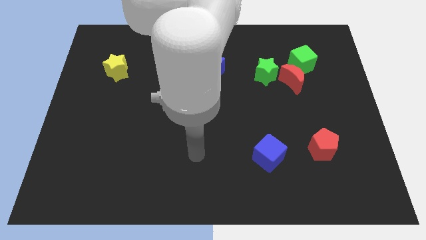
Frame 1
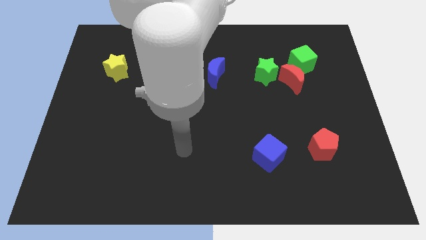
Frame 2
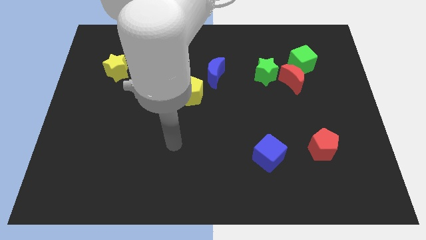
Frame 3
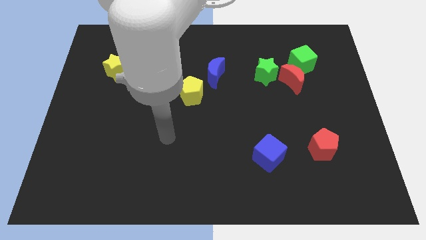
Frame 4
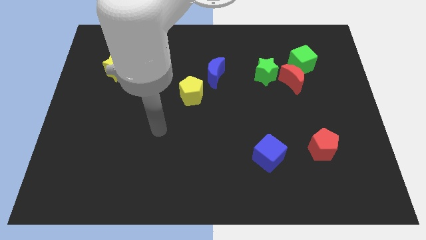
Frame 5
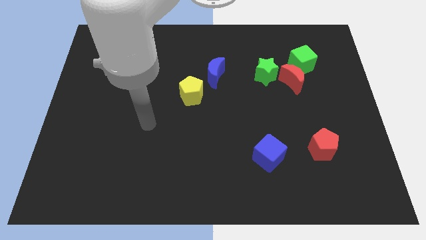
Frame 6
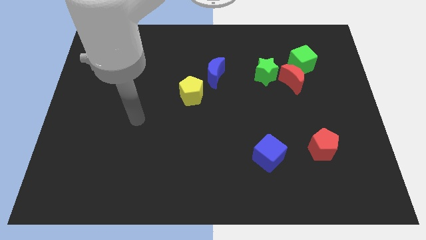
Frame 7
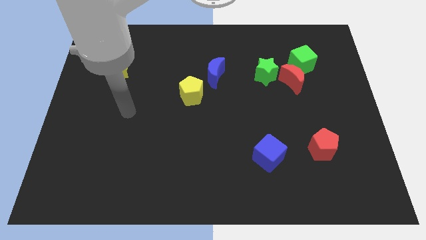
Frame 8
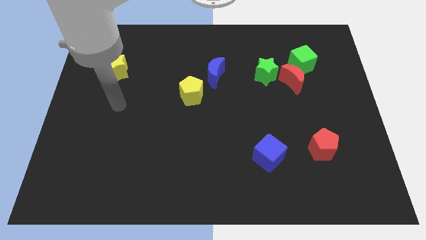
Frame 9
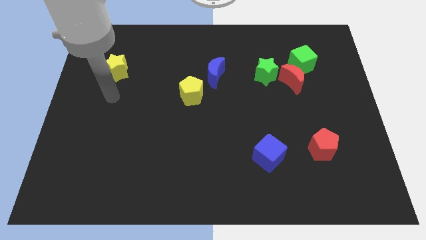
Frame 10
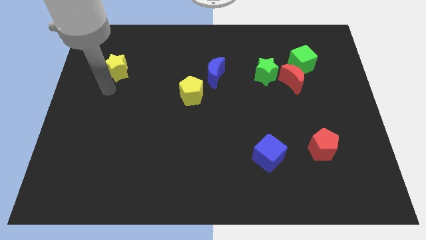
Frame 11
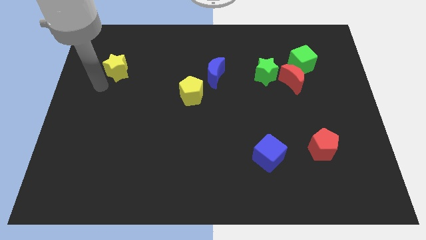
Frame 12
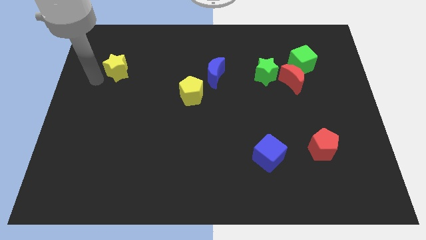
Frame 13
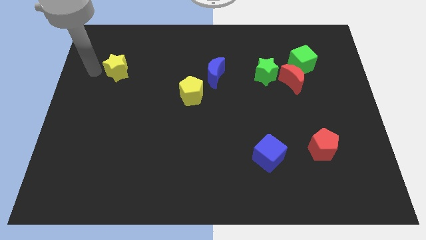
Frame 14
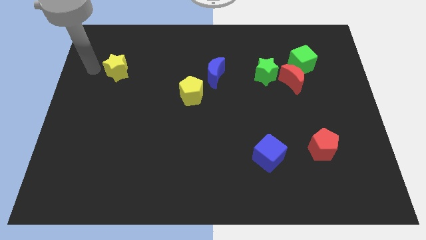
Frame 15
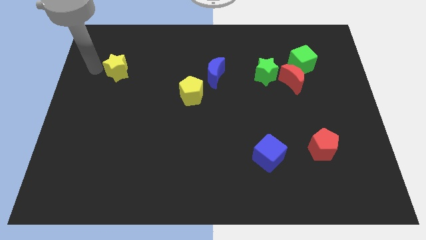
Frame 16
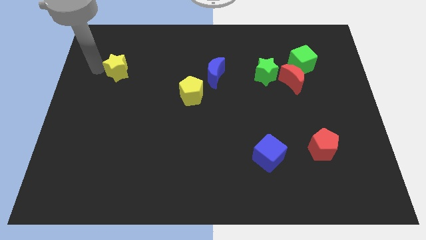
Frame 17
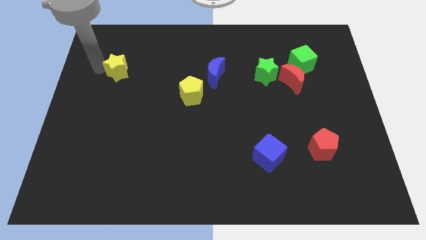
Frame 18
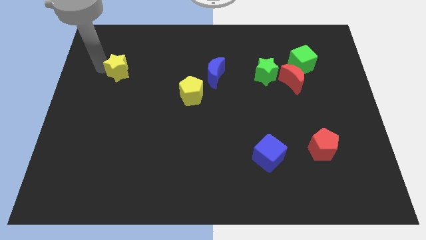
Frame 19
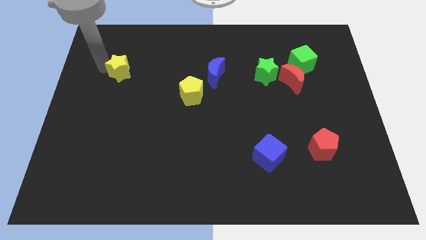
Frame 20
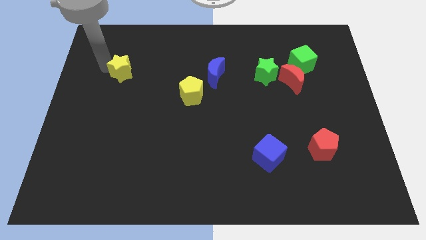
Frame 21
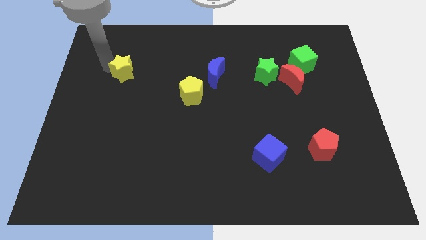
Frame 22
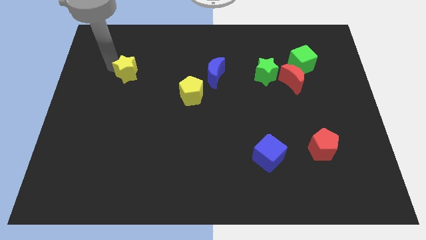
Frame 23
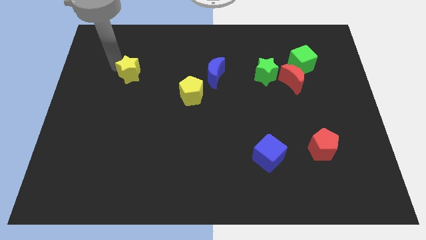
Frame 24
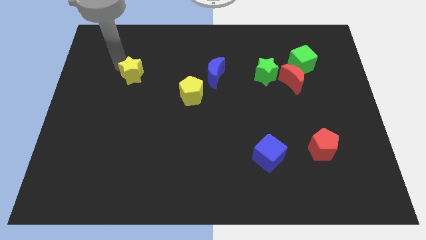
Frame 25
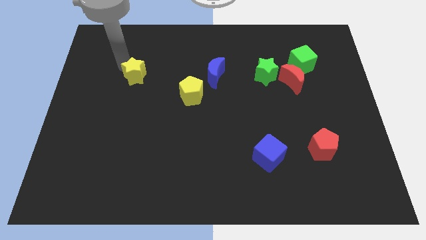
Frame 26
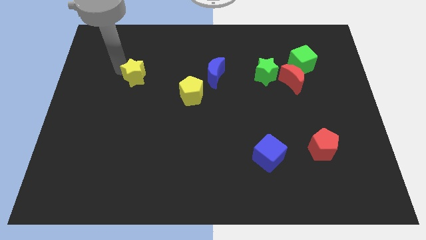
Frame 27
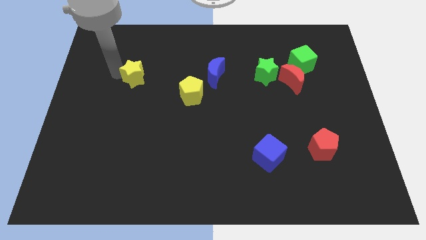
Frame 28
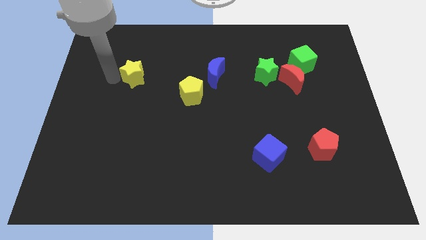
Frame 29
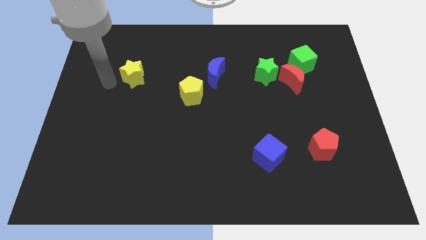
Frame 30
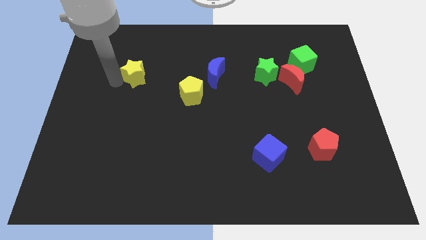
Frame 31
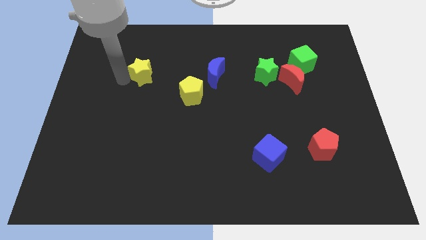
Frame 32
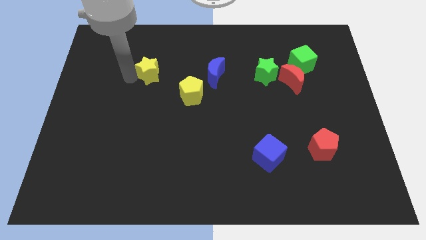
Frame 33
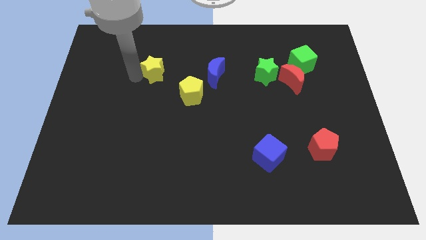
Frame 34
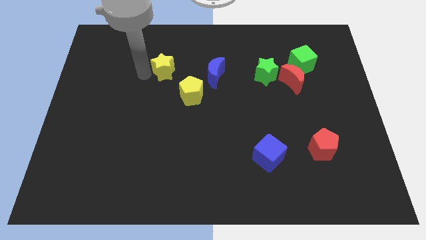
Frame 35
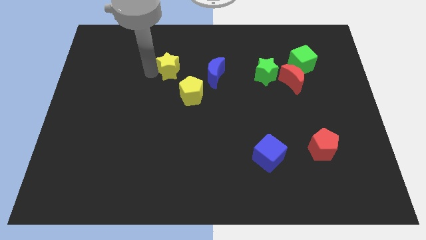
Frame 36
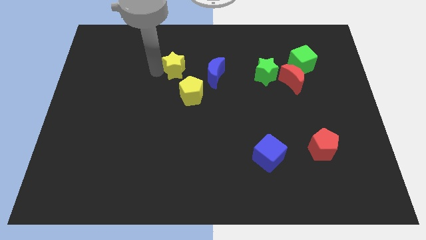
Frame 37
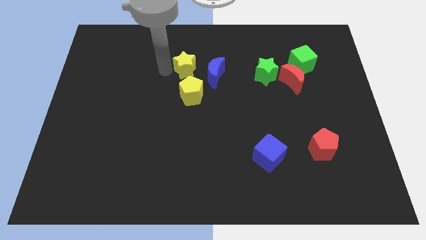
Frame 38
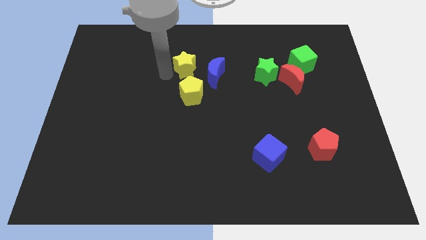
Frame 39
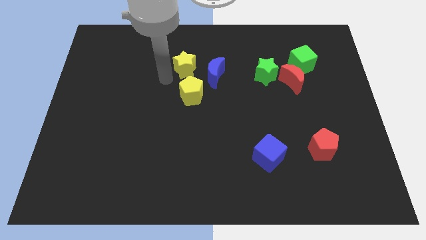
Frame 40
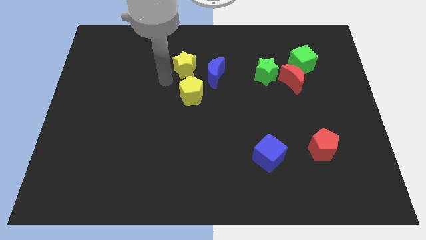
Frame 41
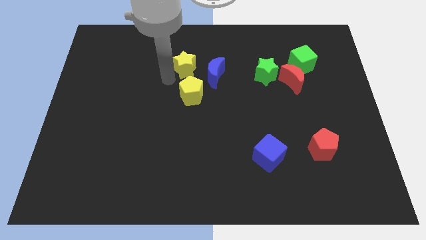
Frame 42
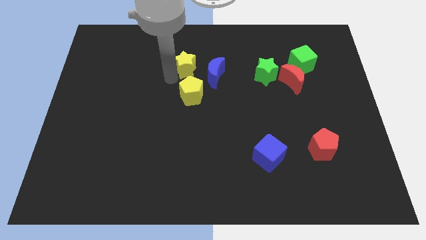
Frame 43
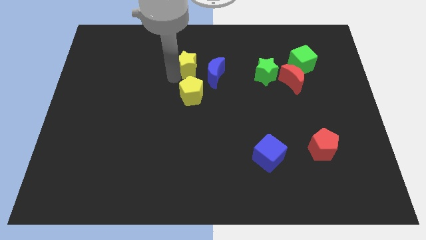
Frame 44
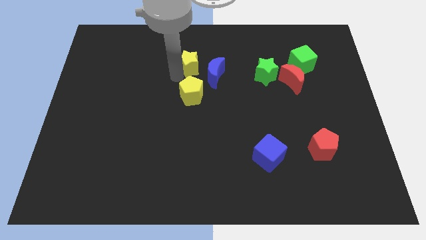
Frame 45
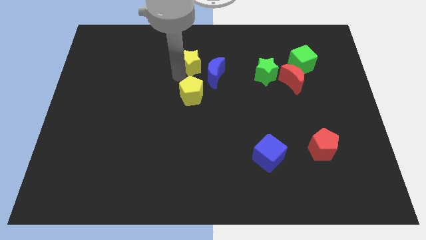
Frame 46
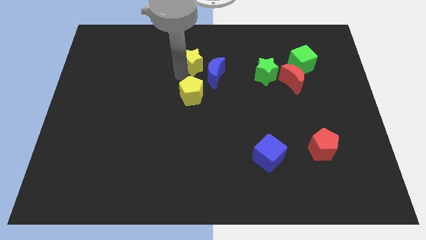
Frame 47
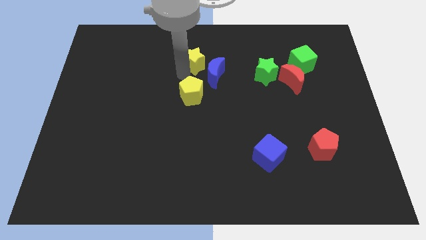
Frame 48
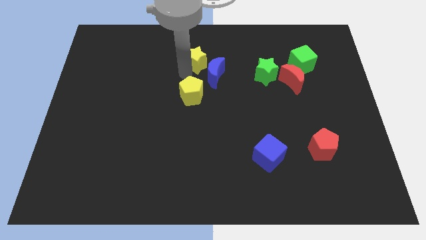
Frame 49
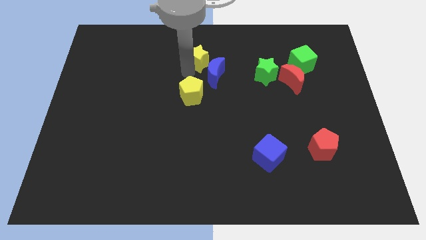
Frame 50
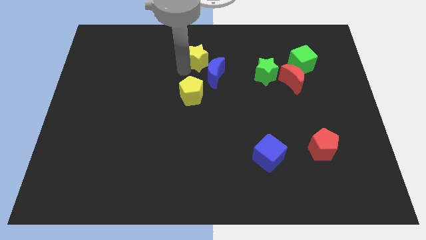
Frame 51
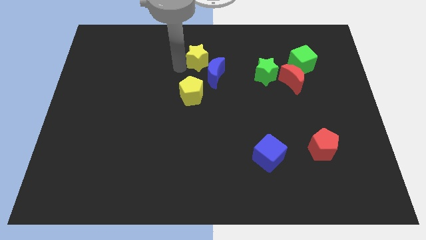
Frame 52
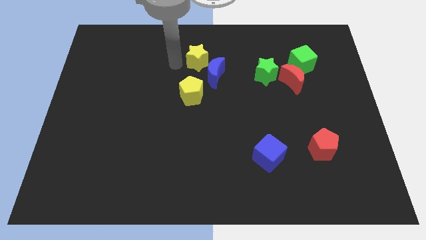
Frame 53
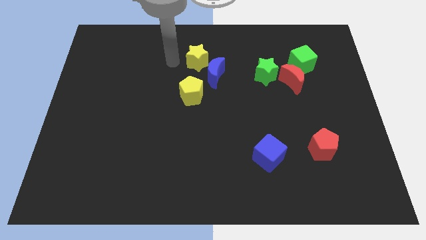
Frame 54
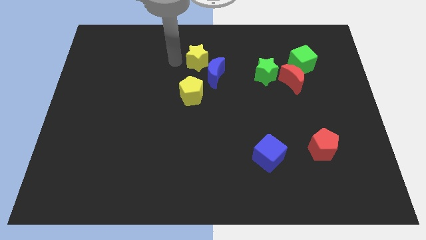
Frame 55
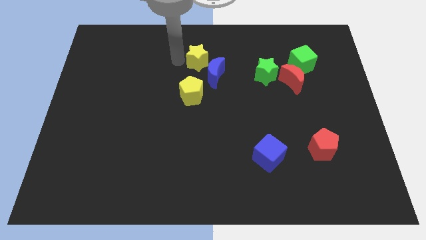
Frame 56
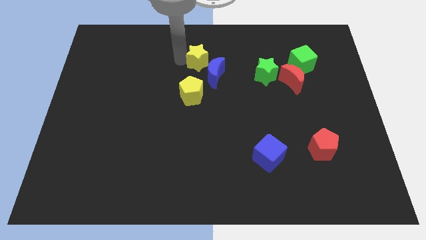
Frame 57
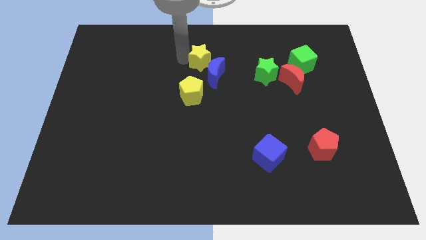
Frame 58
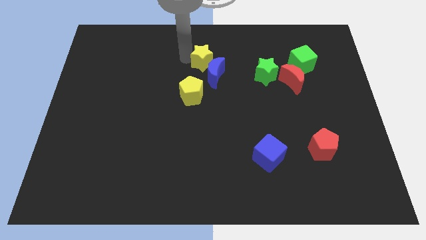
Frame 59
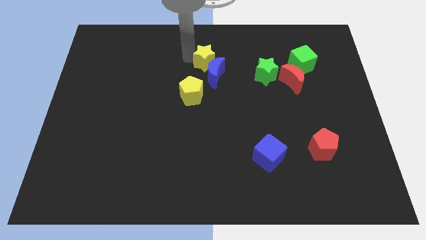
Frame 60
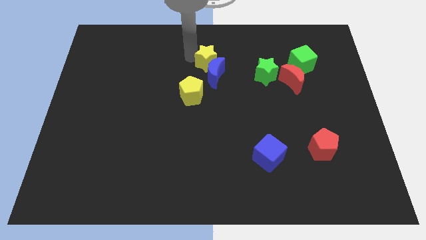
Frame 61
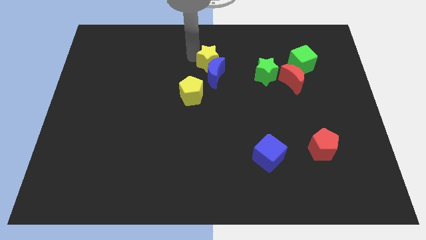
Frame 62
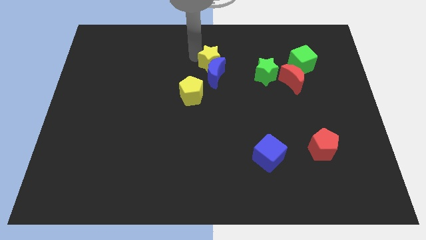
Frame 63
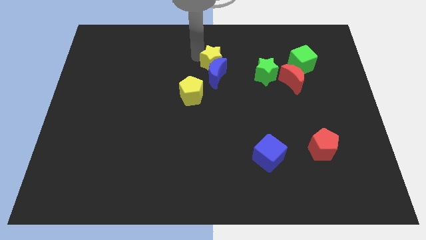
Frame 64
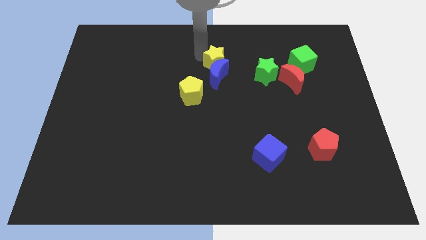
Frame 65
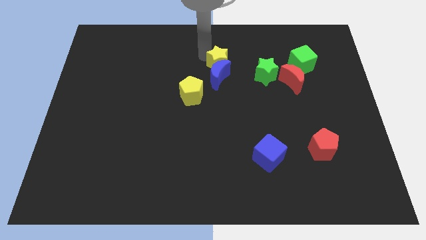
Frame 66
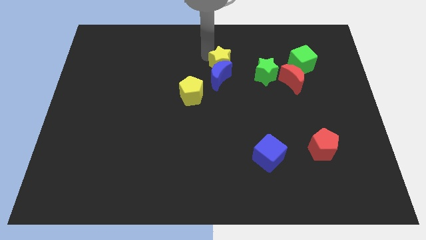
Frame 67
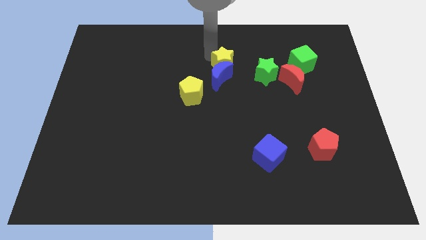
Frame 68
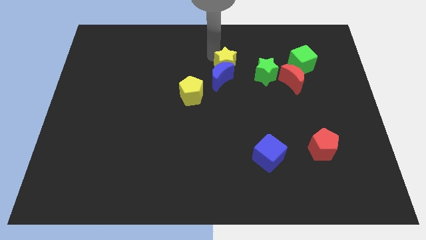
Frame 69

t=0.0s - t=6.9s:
put the yellow star to the top left of the green star
